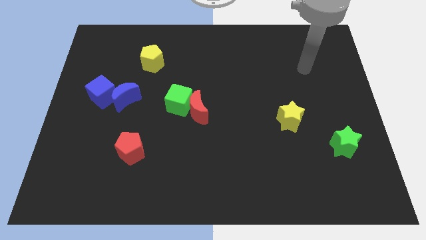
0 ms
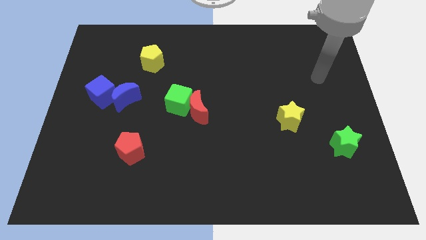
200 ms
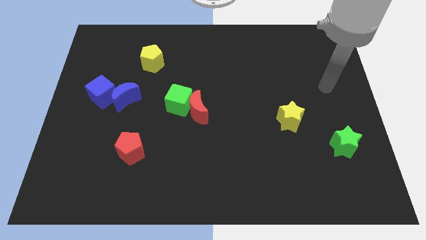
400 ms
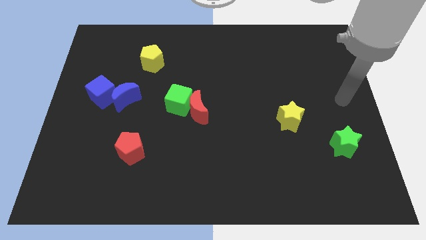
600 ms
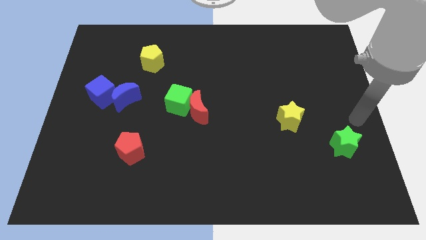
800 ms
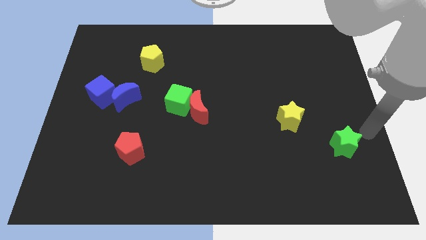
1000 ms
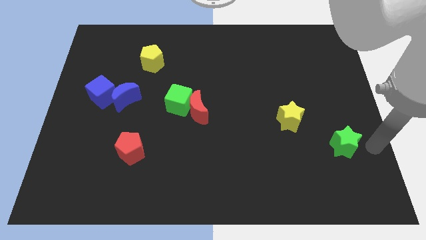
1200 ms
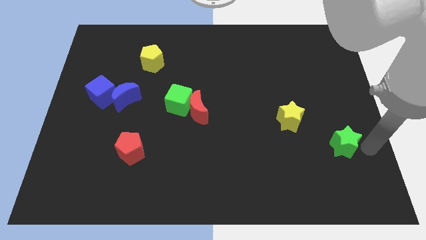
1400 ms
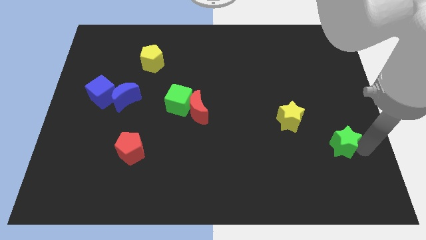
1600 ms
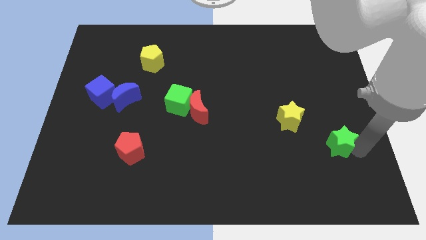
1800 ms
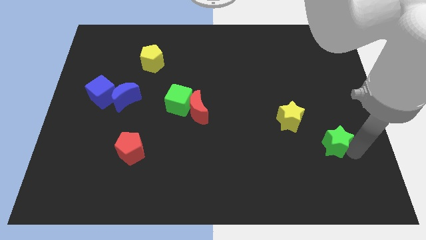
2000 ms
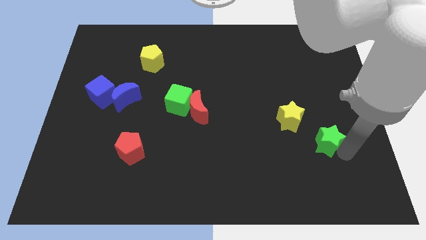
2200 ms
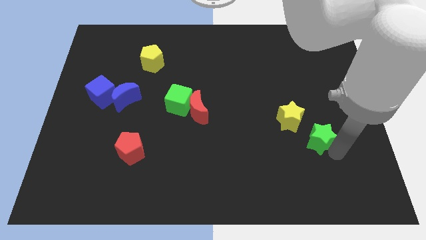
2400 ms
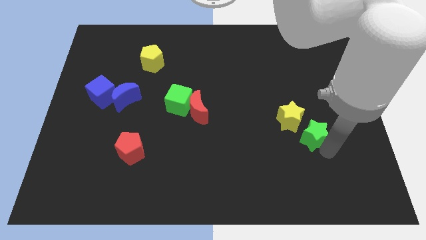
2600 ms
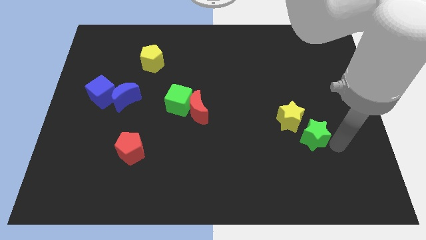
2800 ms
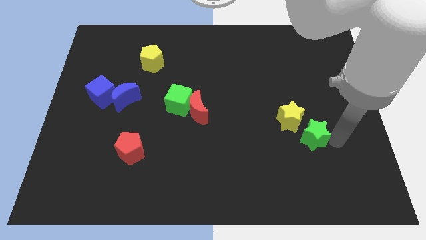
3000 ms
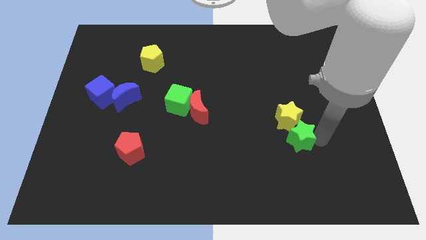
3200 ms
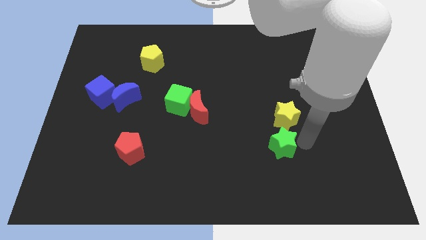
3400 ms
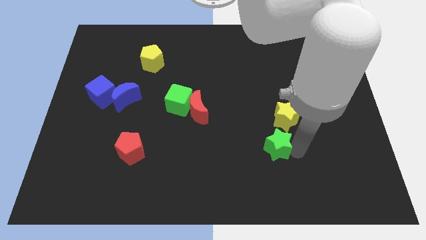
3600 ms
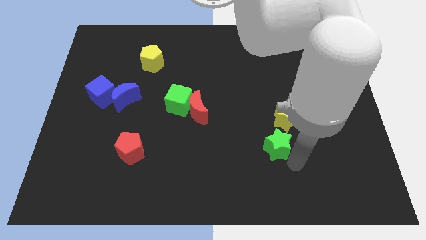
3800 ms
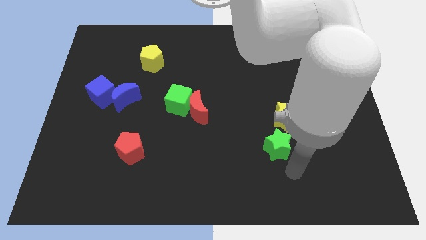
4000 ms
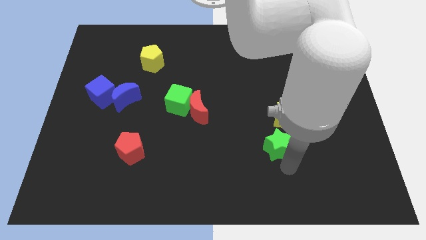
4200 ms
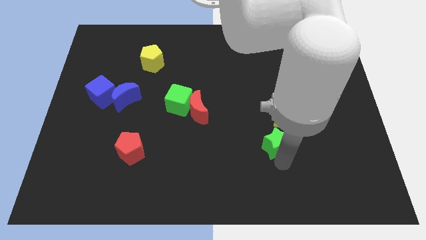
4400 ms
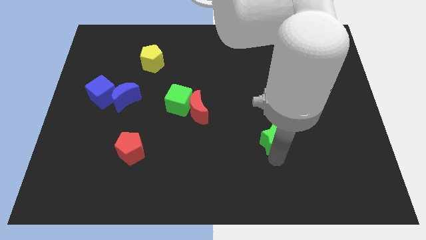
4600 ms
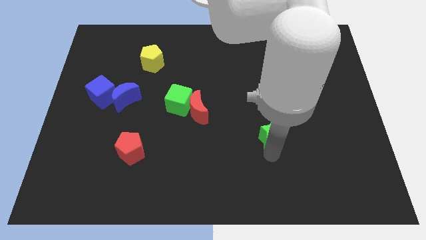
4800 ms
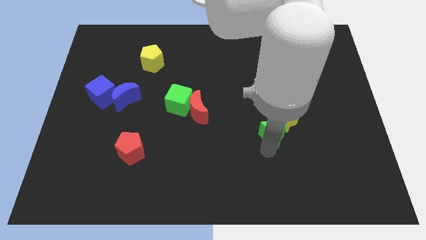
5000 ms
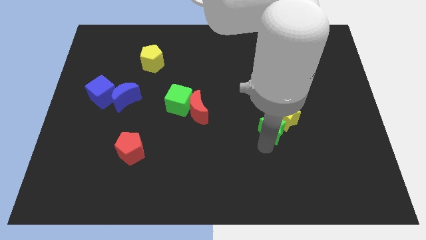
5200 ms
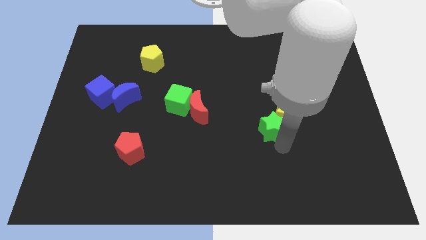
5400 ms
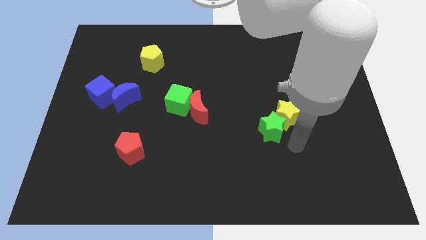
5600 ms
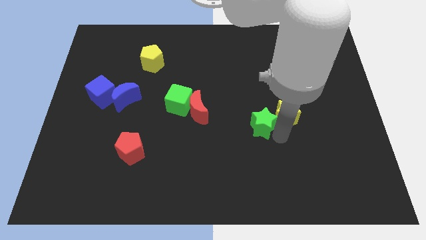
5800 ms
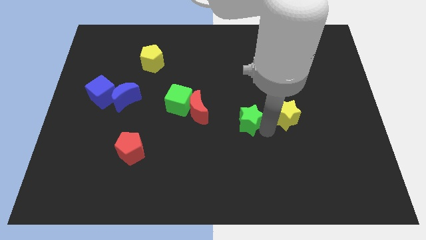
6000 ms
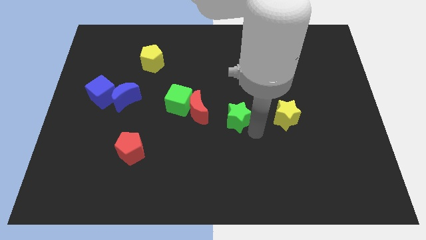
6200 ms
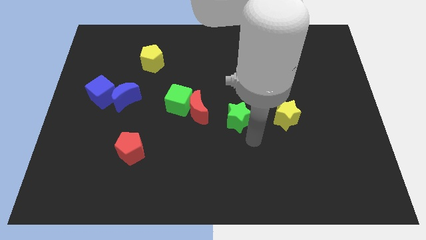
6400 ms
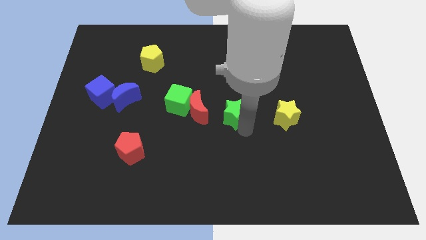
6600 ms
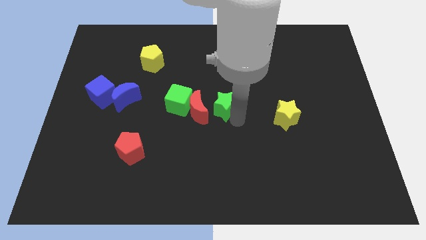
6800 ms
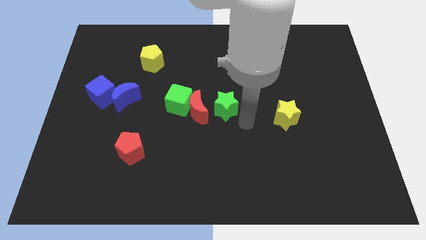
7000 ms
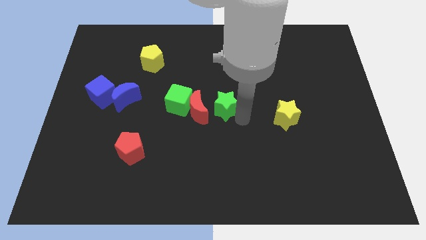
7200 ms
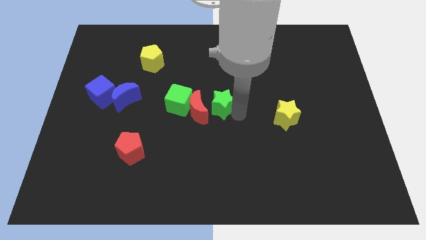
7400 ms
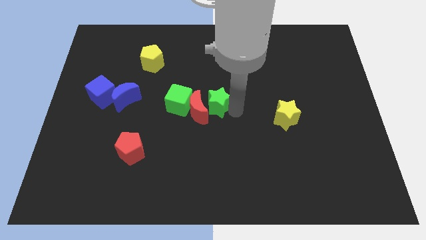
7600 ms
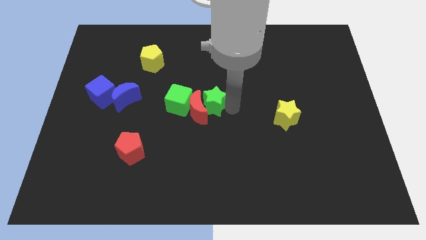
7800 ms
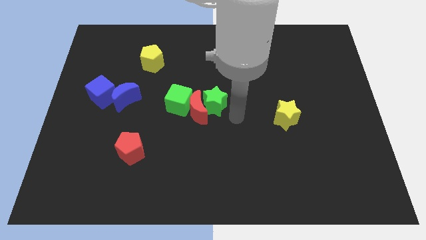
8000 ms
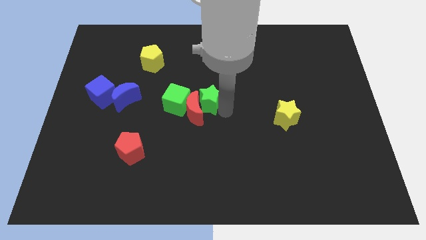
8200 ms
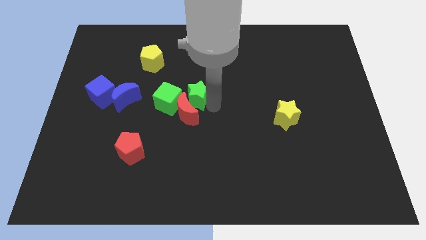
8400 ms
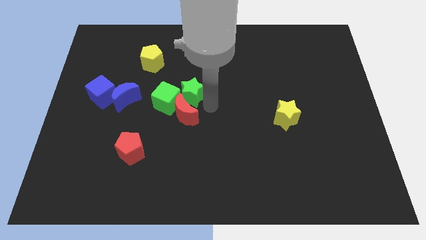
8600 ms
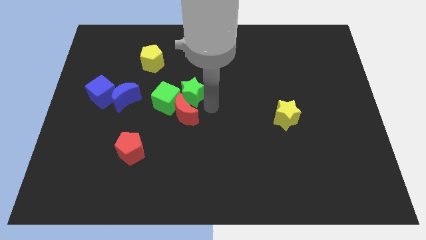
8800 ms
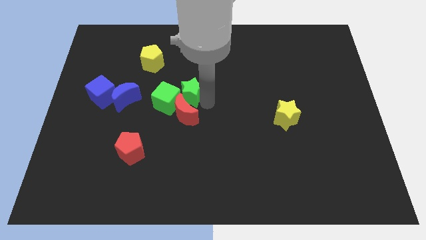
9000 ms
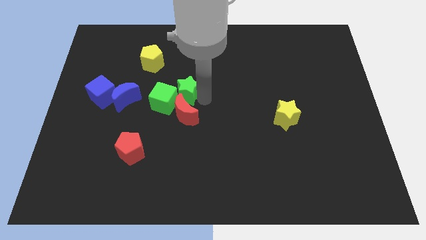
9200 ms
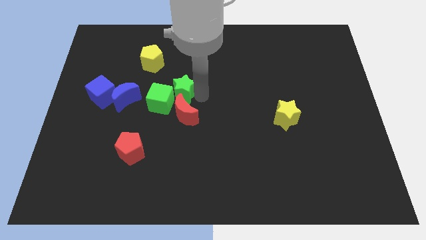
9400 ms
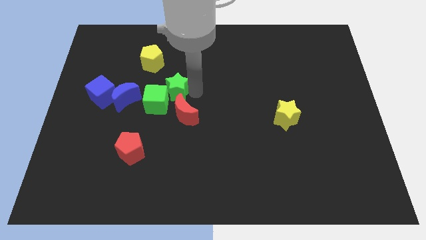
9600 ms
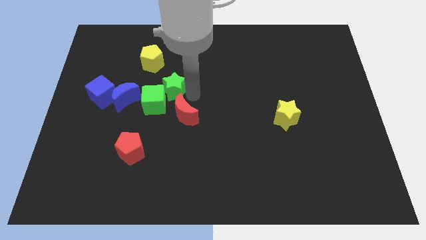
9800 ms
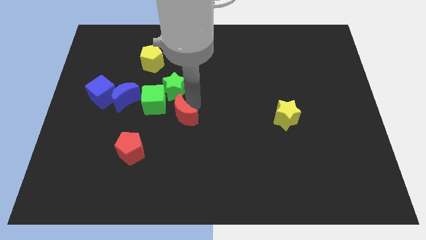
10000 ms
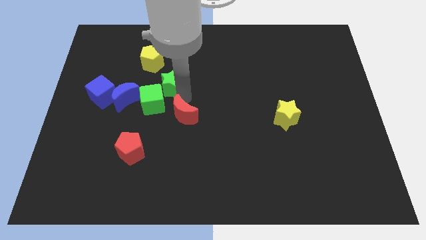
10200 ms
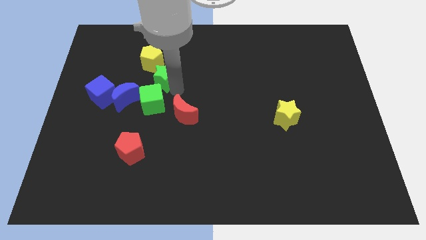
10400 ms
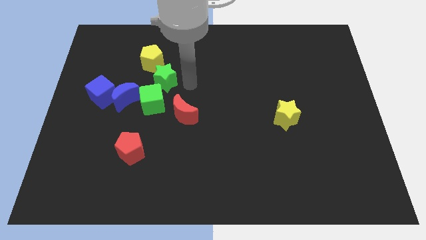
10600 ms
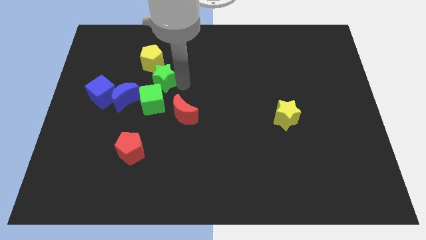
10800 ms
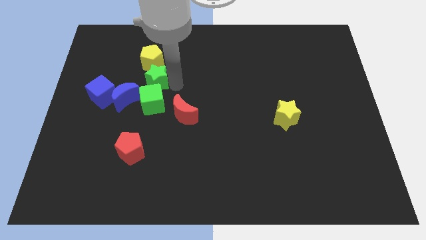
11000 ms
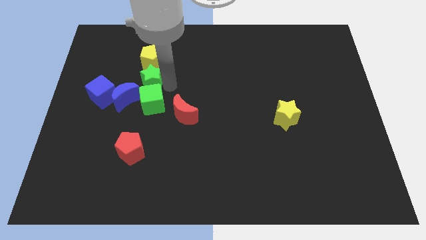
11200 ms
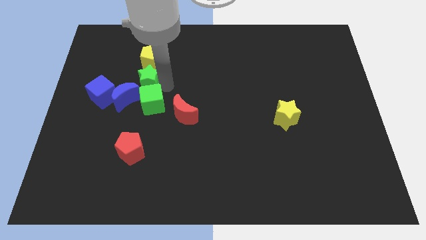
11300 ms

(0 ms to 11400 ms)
put the green star to the bottom left of the yellow pentagon

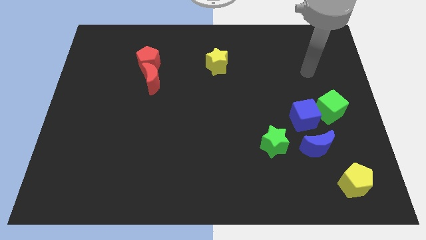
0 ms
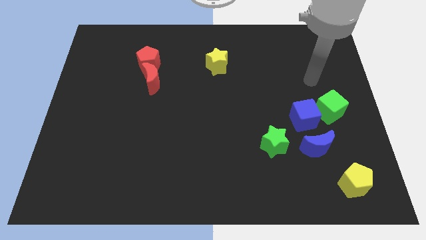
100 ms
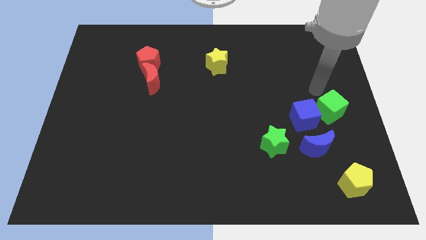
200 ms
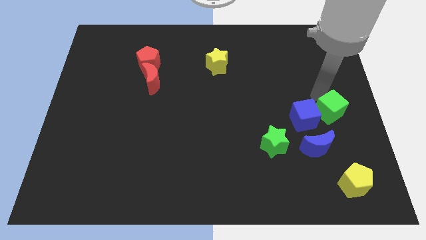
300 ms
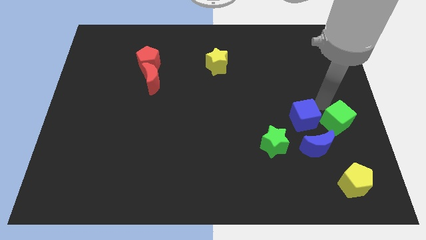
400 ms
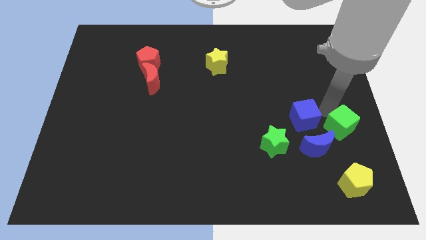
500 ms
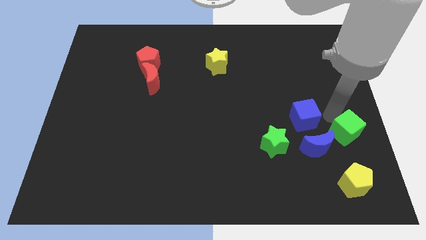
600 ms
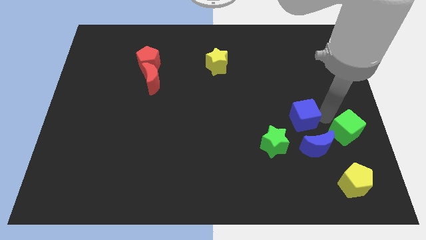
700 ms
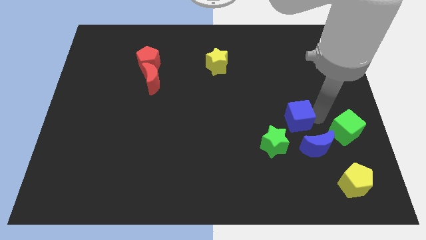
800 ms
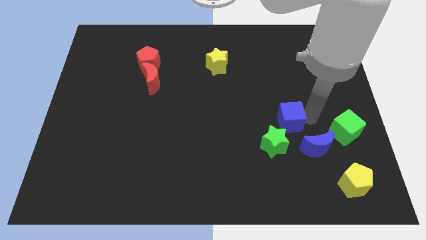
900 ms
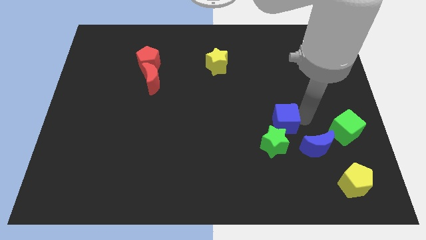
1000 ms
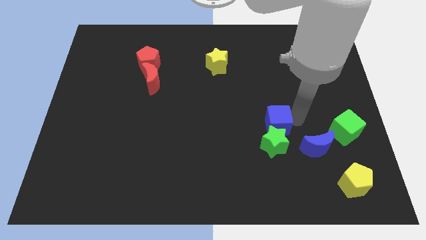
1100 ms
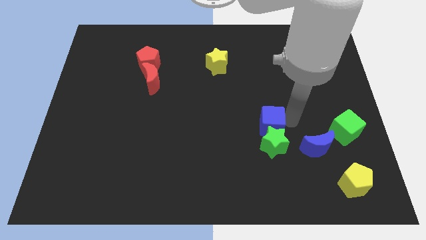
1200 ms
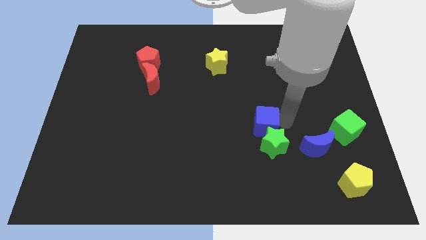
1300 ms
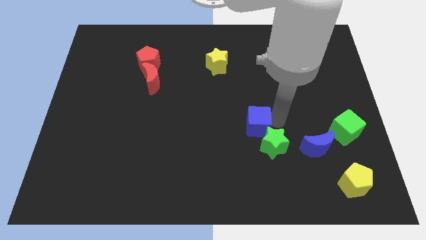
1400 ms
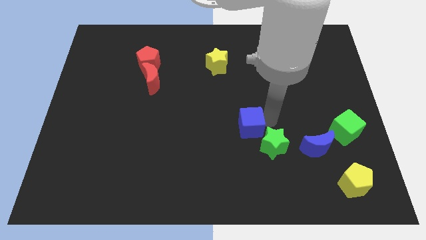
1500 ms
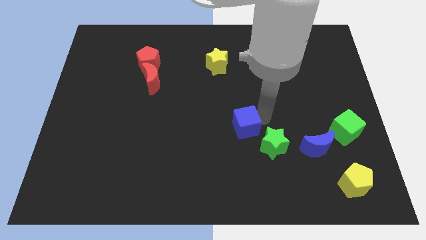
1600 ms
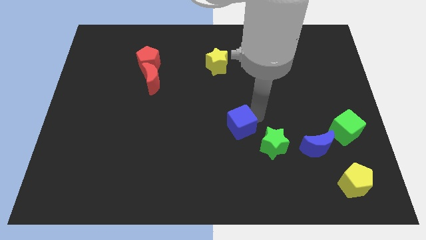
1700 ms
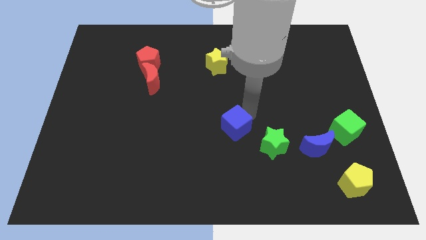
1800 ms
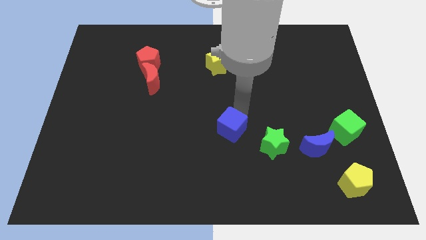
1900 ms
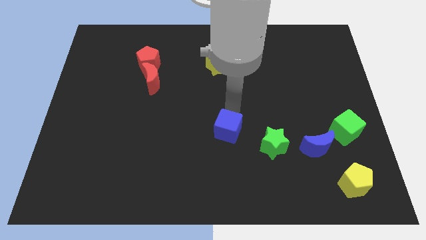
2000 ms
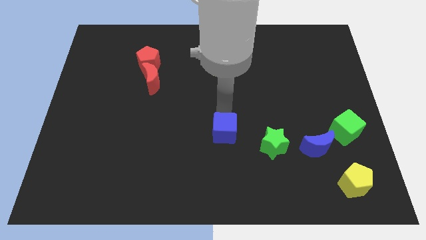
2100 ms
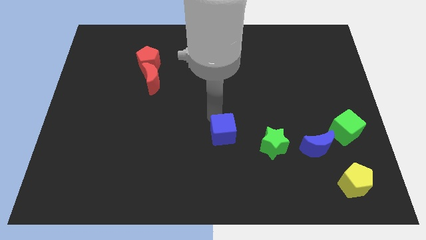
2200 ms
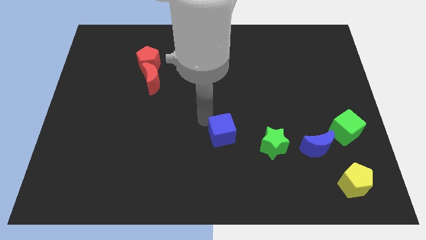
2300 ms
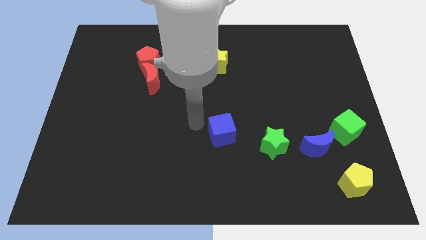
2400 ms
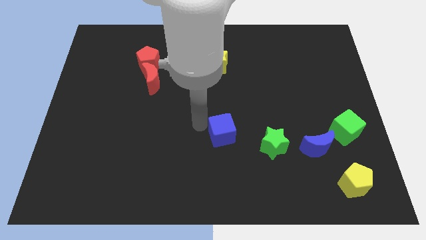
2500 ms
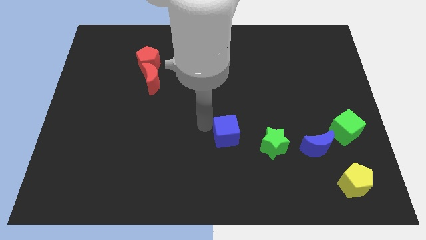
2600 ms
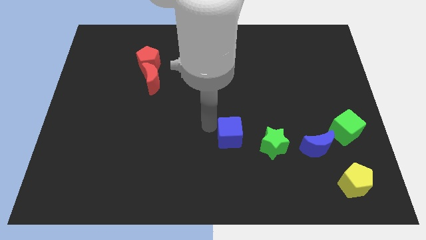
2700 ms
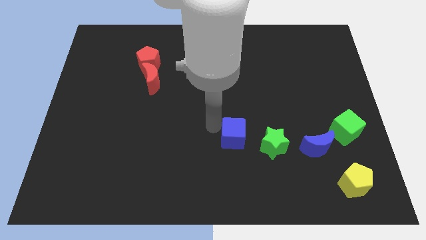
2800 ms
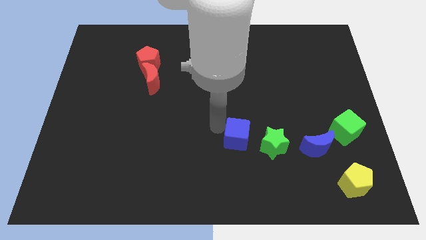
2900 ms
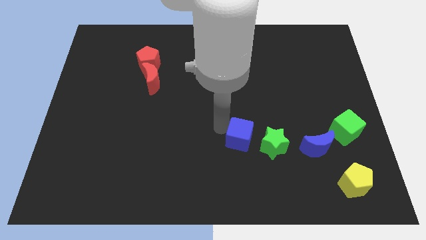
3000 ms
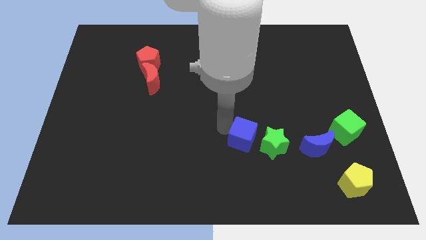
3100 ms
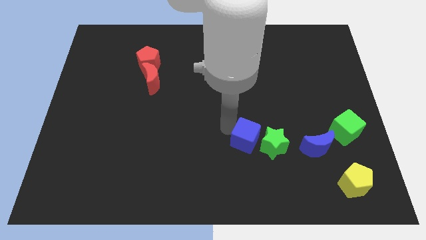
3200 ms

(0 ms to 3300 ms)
slide the blue cube left of the blue moon
